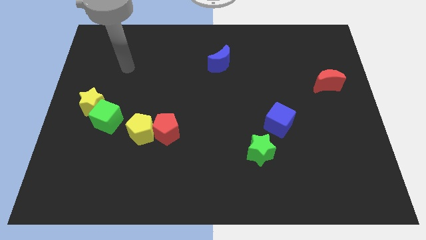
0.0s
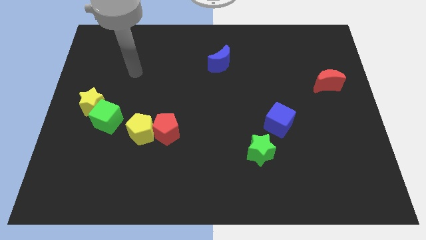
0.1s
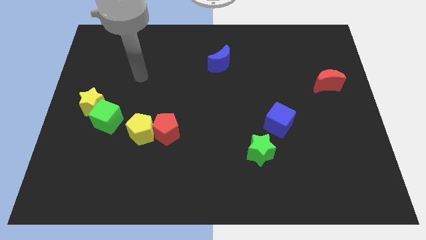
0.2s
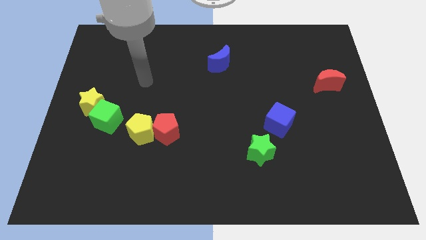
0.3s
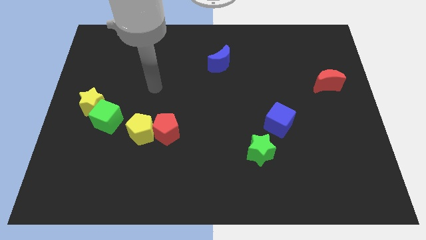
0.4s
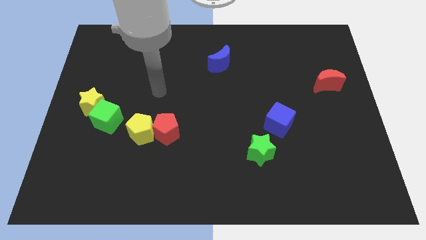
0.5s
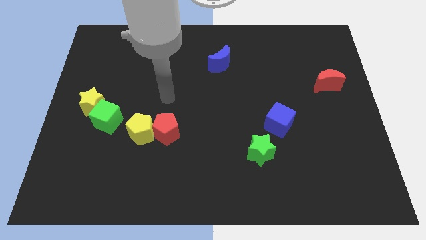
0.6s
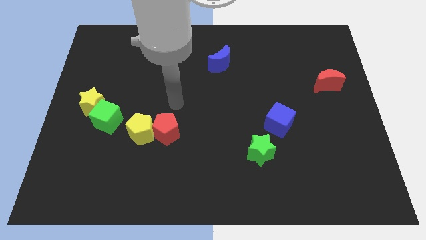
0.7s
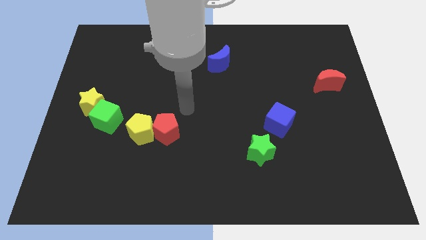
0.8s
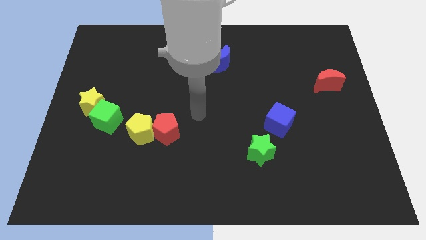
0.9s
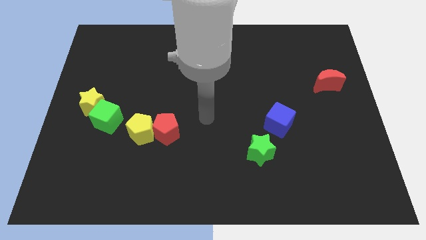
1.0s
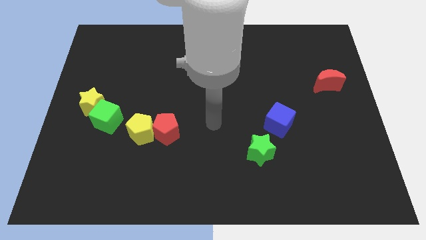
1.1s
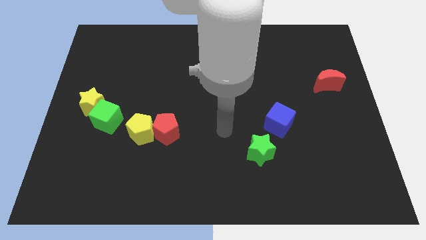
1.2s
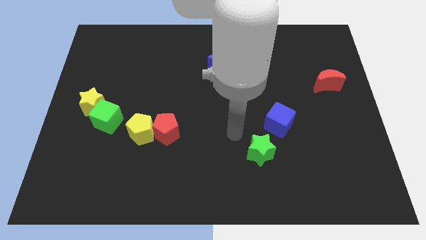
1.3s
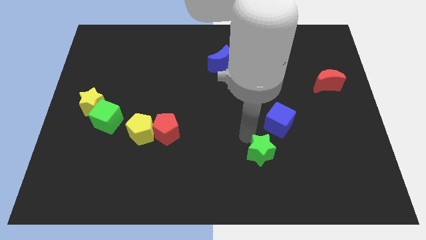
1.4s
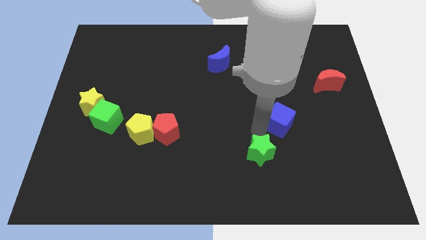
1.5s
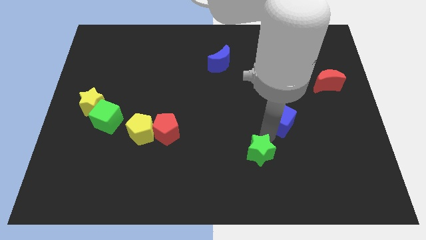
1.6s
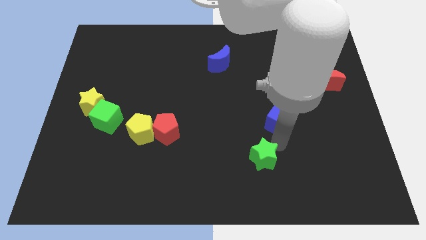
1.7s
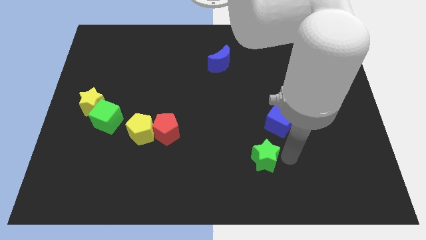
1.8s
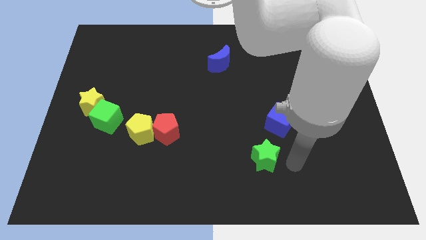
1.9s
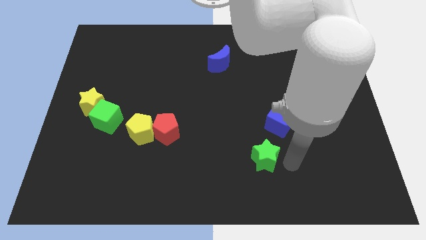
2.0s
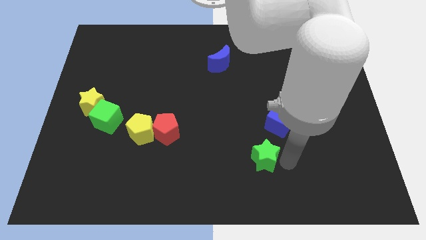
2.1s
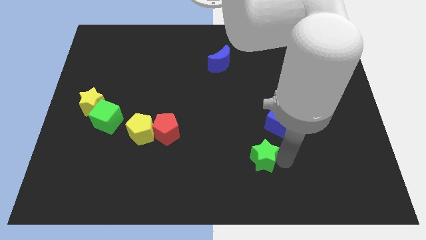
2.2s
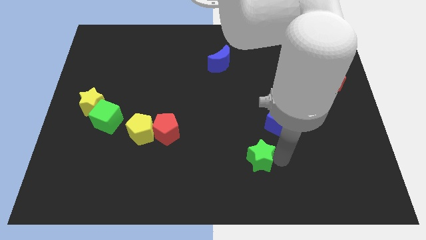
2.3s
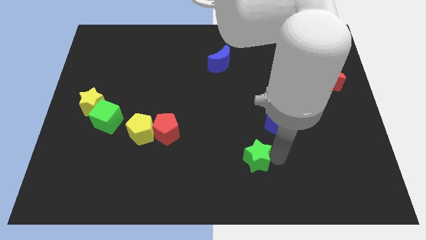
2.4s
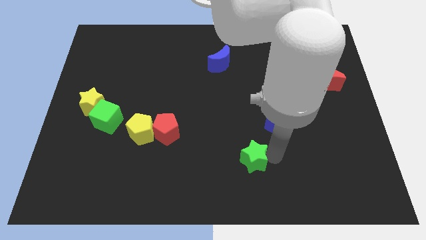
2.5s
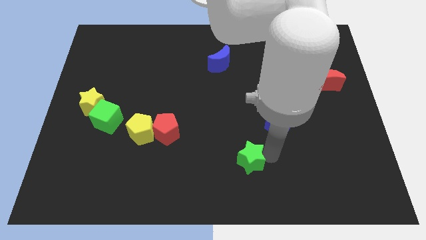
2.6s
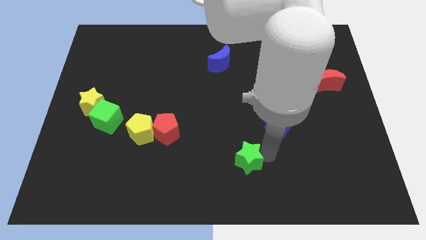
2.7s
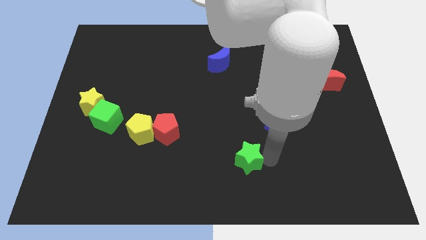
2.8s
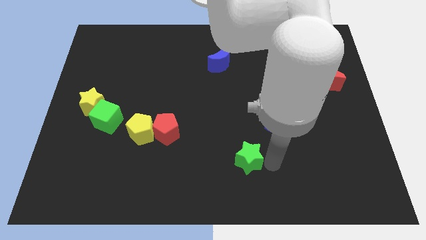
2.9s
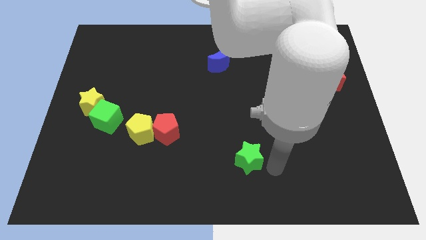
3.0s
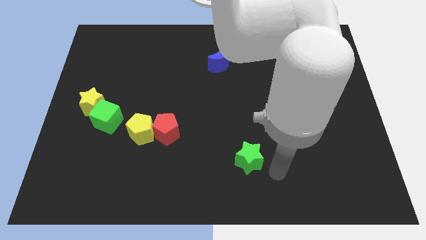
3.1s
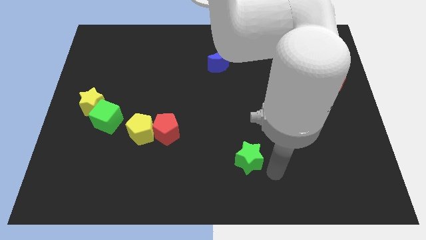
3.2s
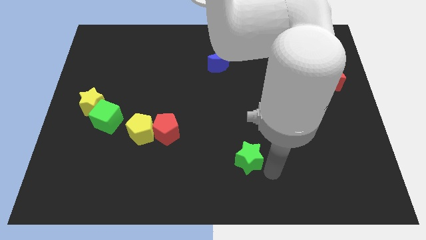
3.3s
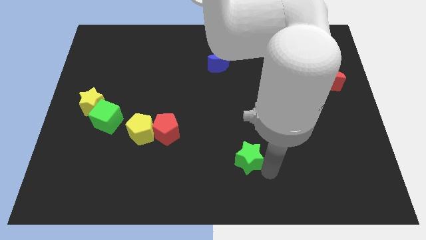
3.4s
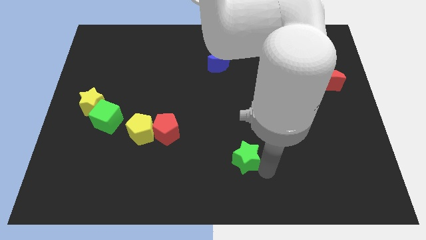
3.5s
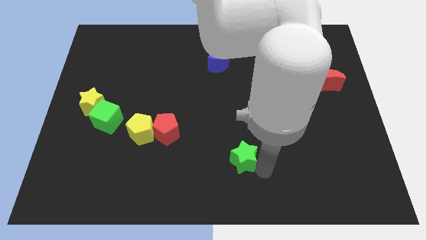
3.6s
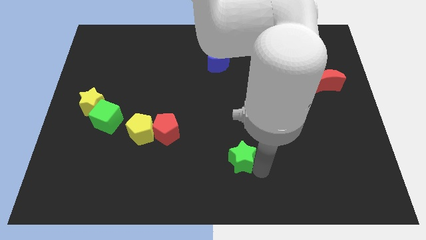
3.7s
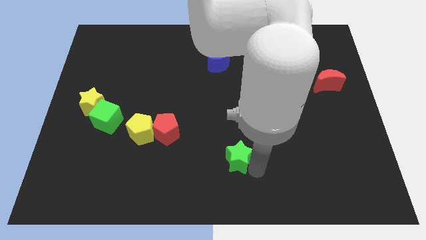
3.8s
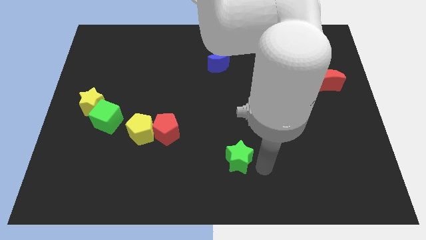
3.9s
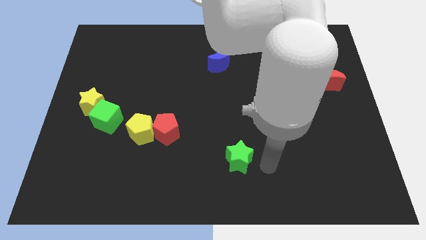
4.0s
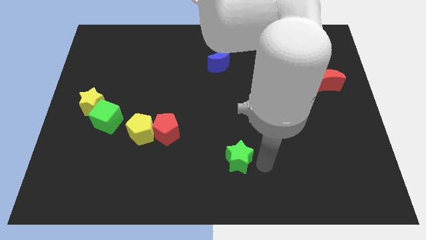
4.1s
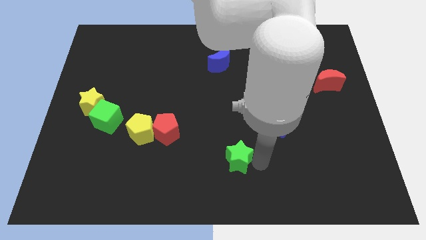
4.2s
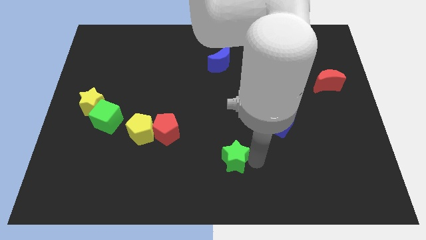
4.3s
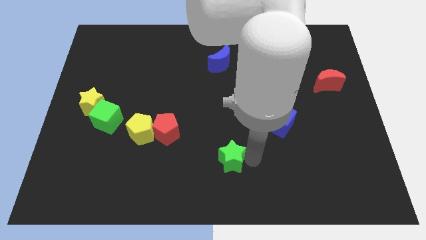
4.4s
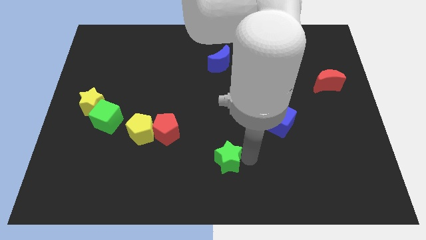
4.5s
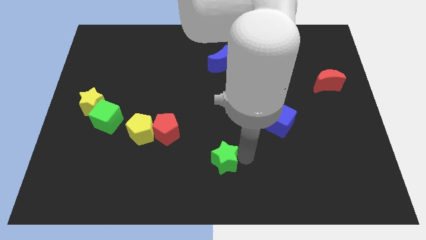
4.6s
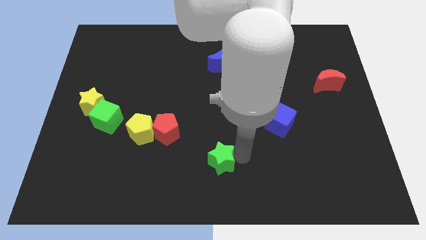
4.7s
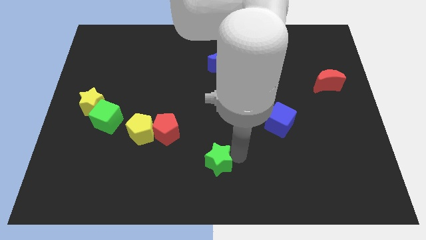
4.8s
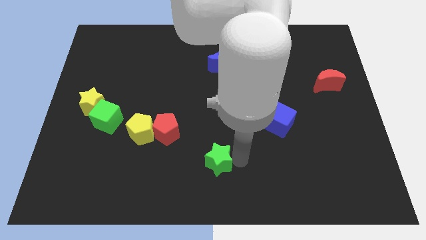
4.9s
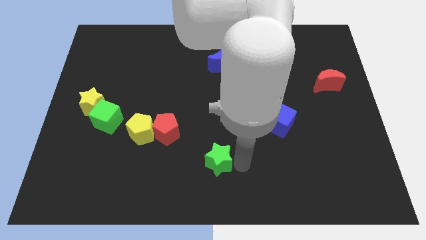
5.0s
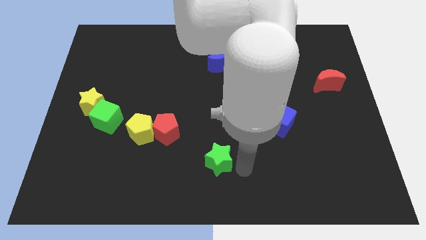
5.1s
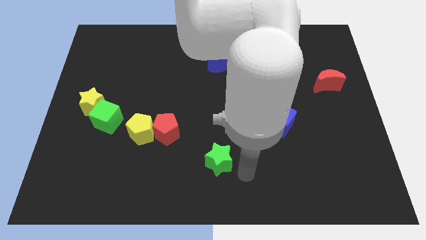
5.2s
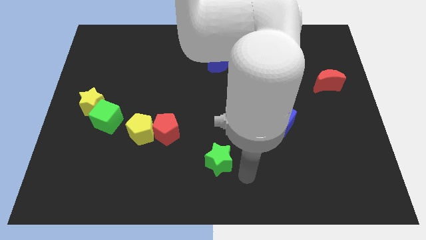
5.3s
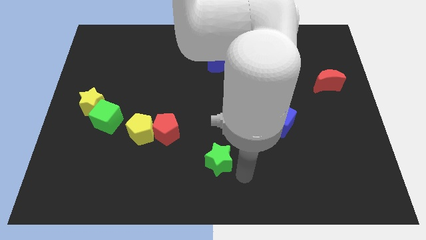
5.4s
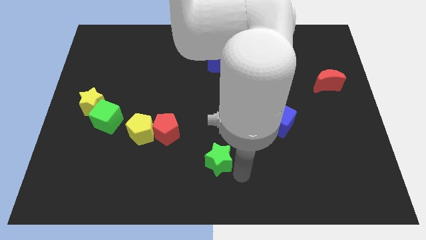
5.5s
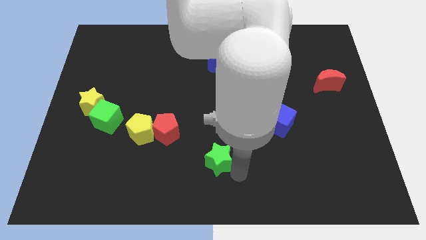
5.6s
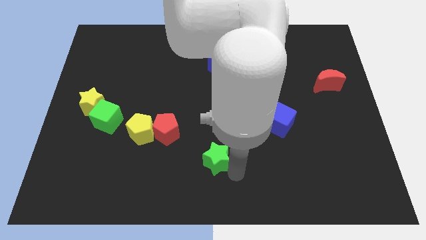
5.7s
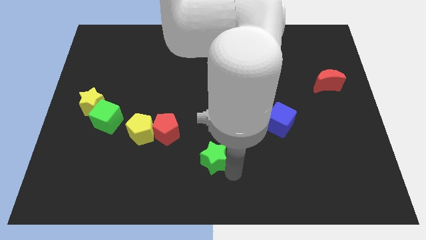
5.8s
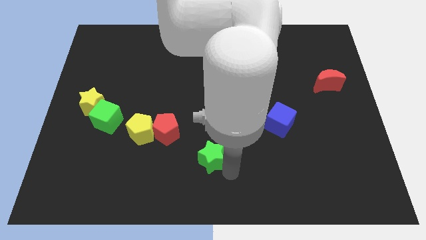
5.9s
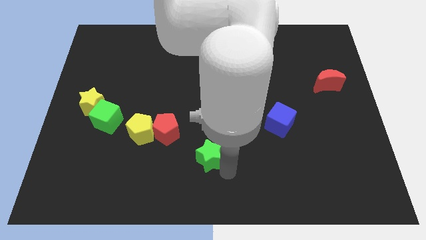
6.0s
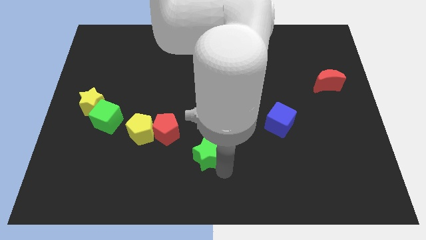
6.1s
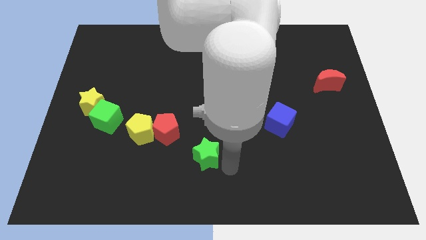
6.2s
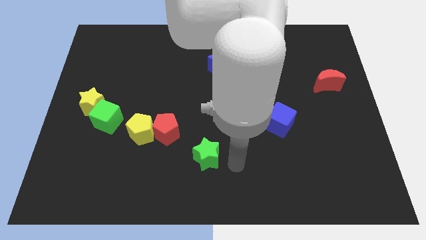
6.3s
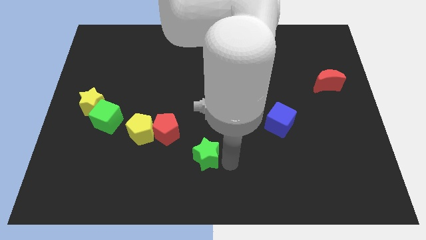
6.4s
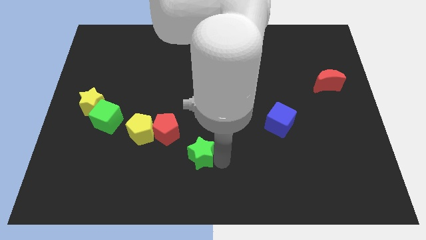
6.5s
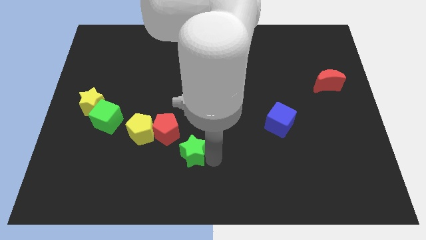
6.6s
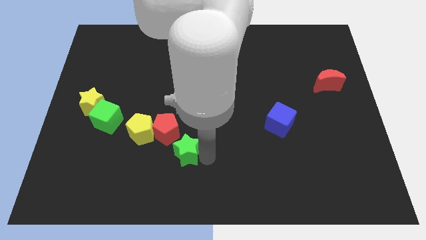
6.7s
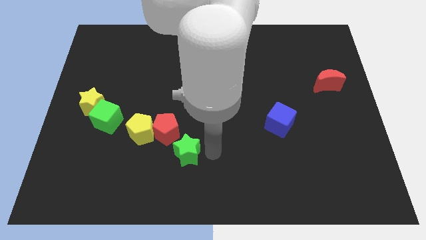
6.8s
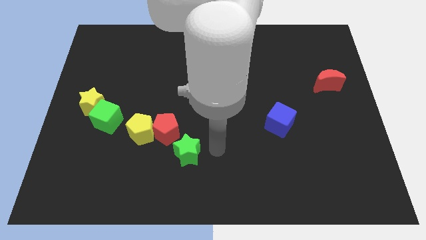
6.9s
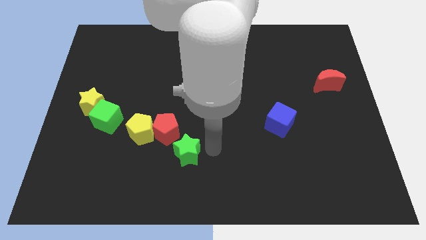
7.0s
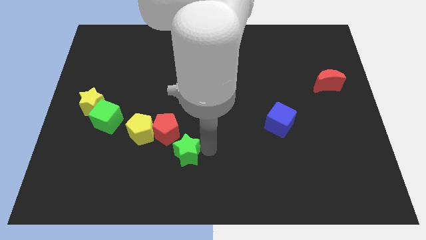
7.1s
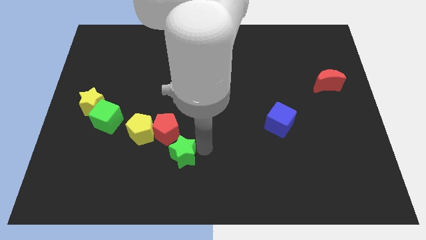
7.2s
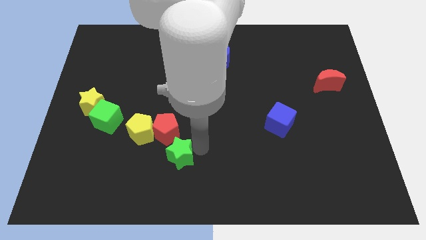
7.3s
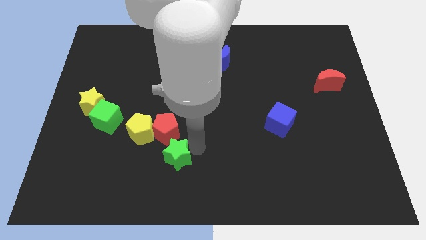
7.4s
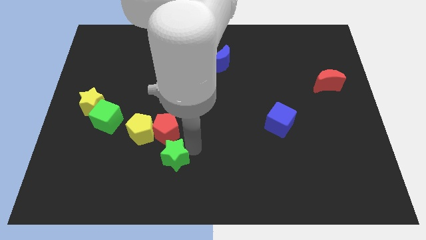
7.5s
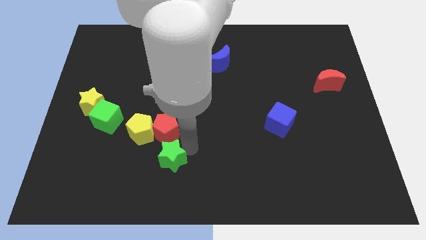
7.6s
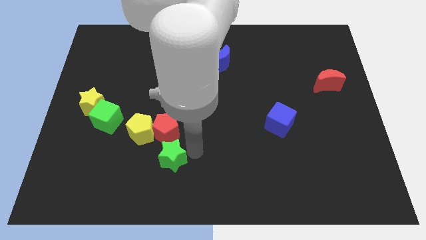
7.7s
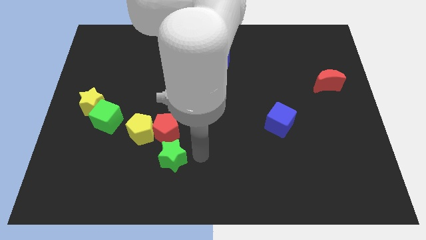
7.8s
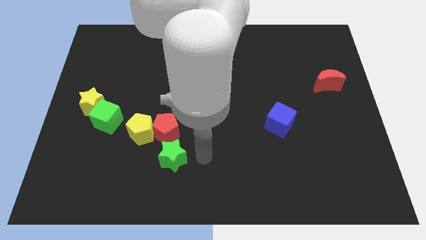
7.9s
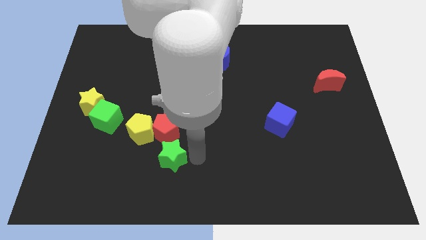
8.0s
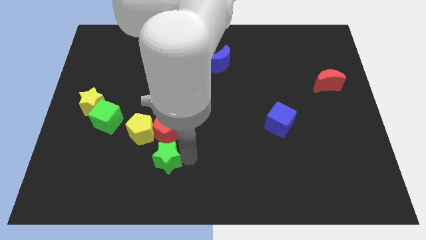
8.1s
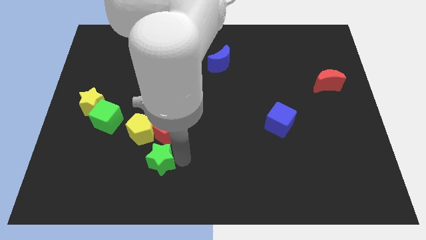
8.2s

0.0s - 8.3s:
move the green star to the left
